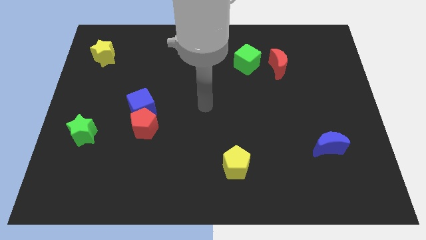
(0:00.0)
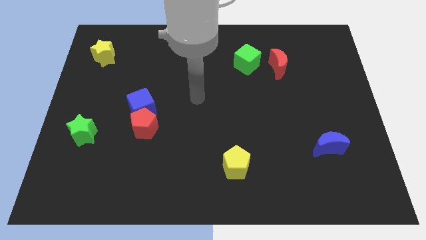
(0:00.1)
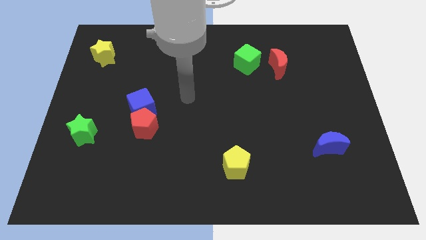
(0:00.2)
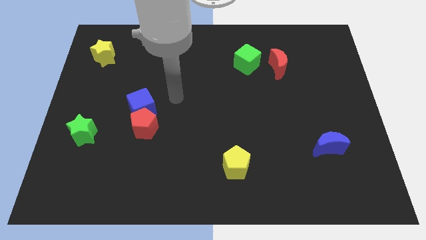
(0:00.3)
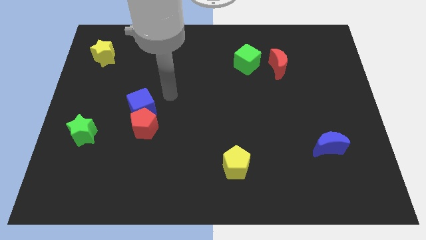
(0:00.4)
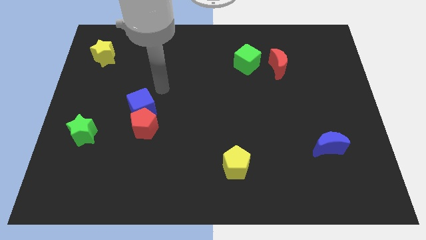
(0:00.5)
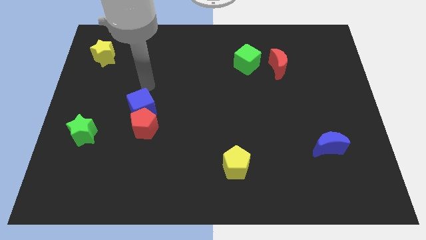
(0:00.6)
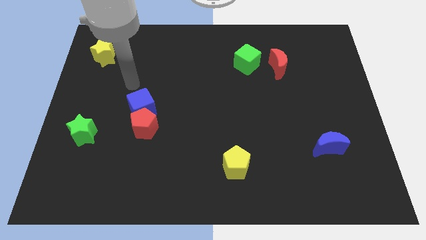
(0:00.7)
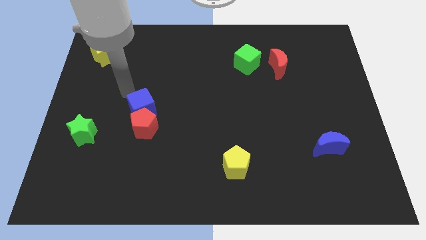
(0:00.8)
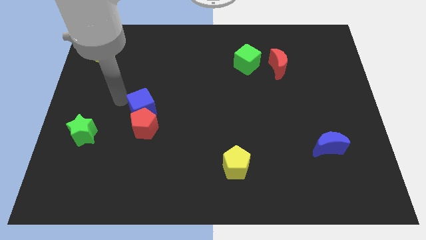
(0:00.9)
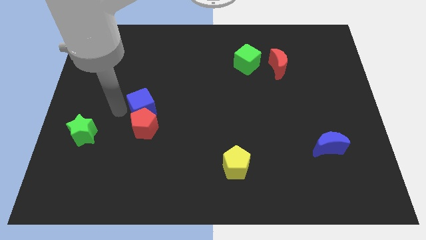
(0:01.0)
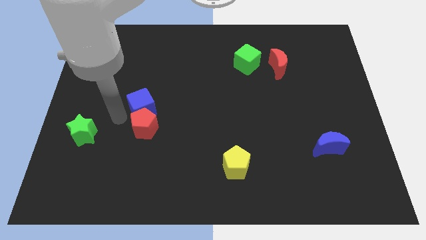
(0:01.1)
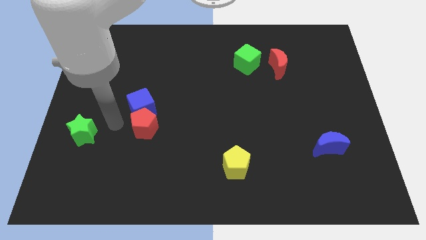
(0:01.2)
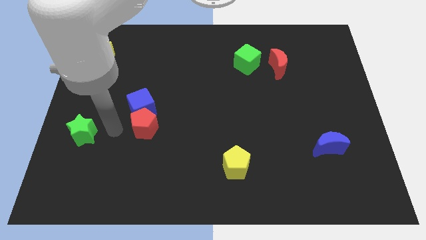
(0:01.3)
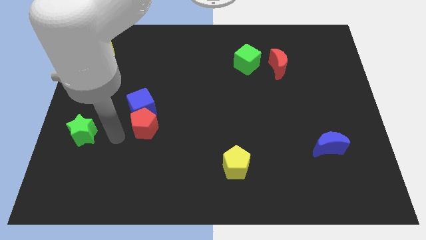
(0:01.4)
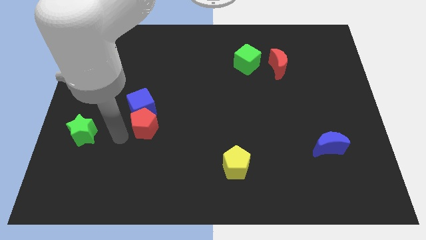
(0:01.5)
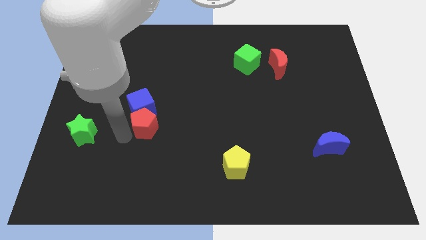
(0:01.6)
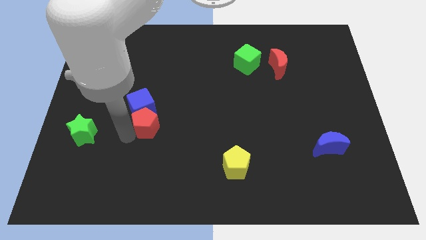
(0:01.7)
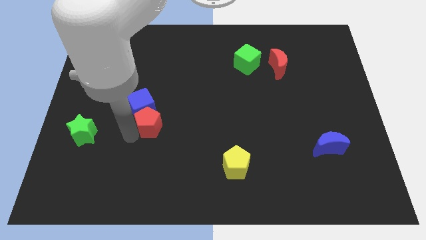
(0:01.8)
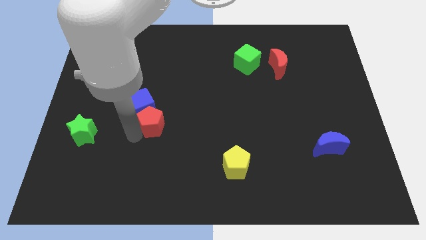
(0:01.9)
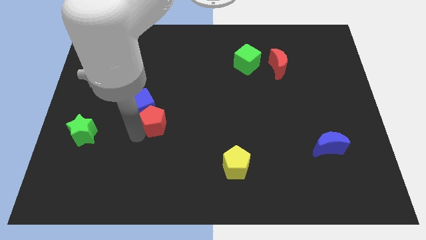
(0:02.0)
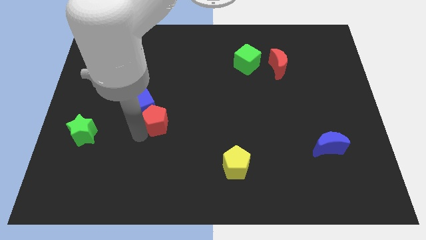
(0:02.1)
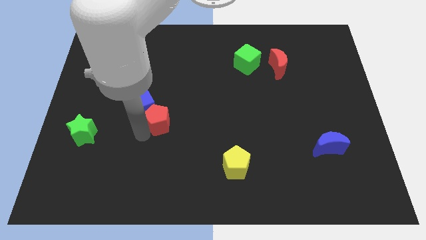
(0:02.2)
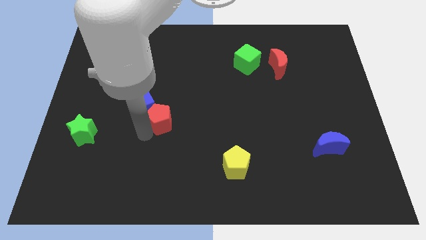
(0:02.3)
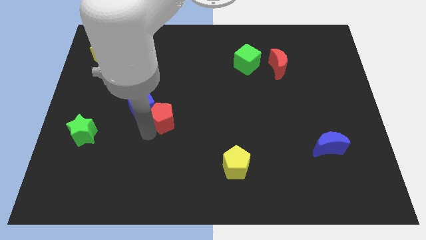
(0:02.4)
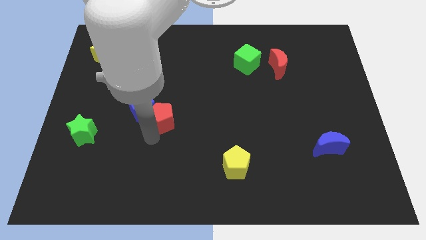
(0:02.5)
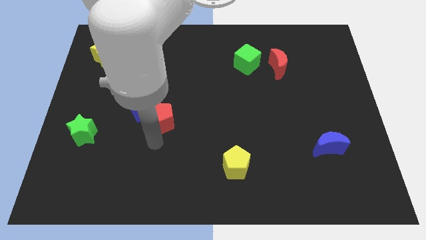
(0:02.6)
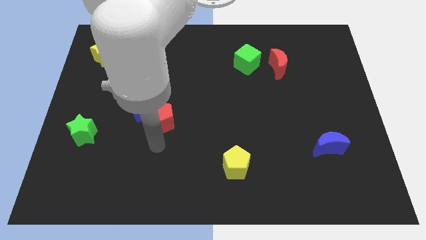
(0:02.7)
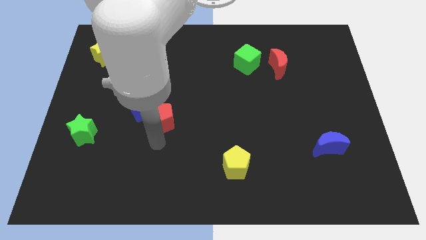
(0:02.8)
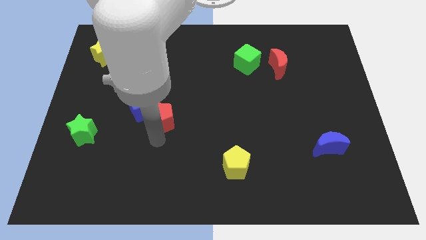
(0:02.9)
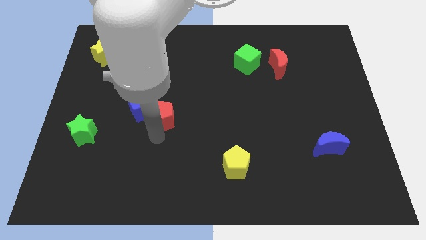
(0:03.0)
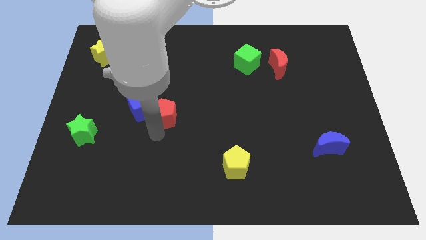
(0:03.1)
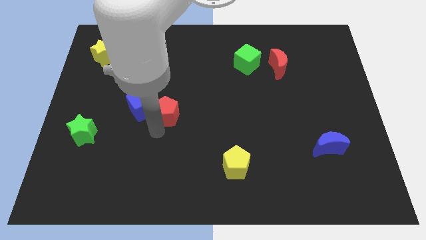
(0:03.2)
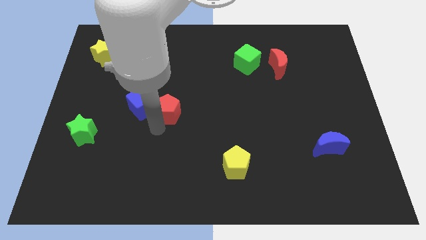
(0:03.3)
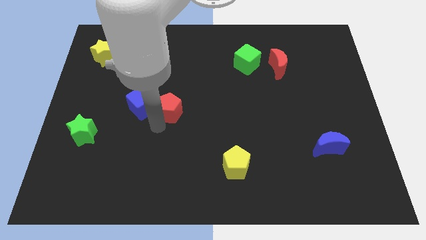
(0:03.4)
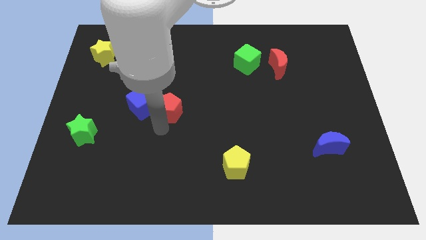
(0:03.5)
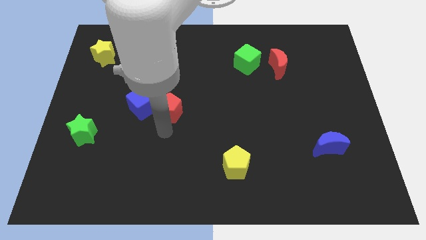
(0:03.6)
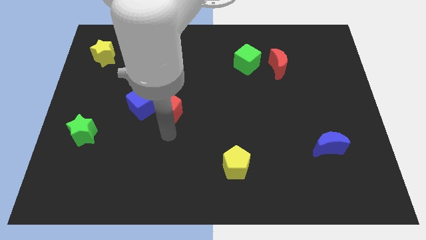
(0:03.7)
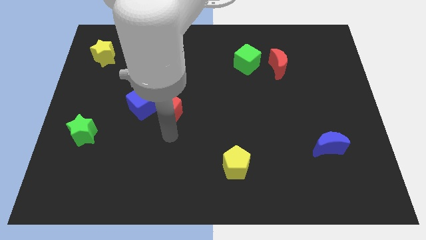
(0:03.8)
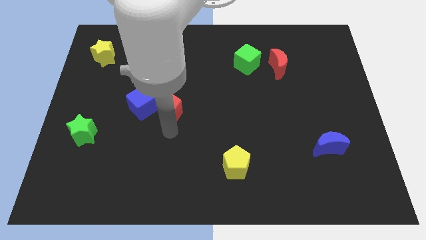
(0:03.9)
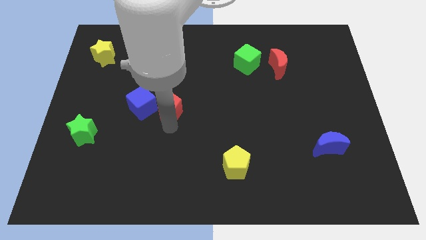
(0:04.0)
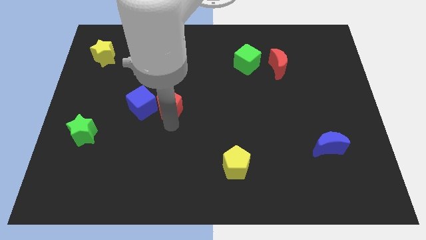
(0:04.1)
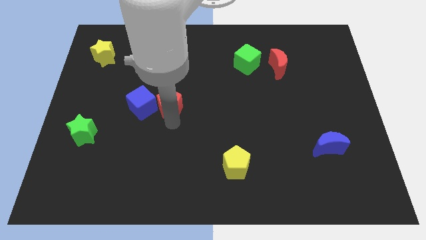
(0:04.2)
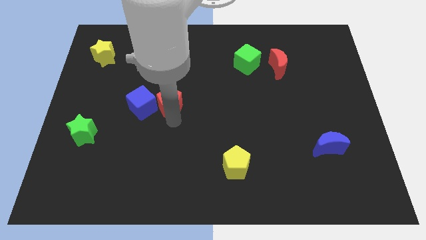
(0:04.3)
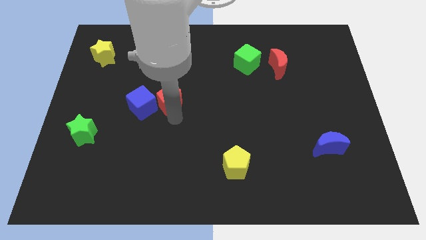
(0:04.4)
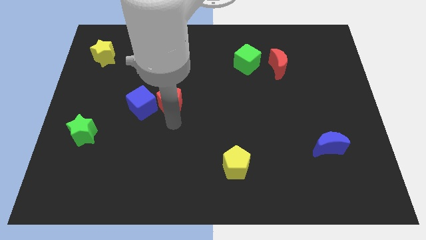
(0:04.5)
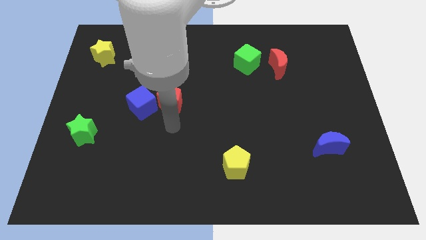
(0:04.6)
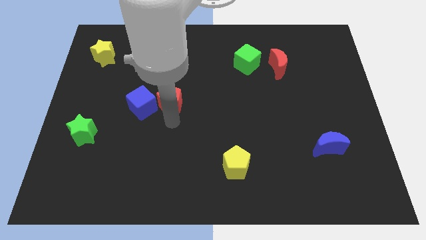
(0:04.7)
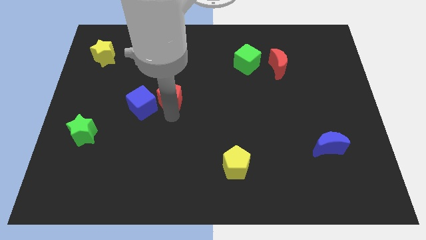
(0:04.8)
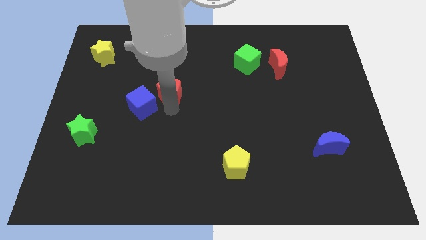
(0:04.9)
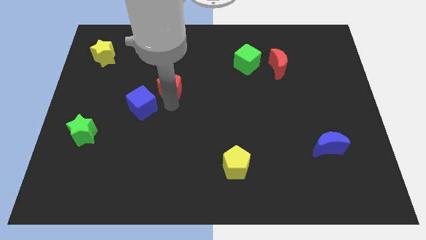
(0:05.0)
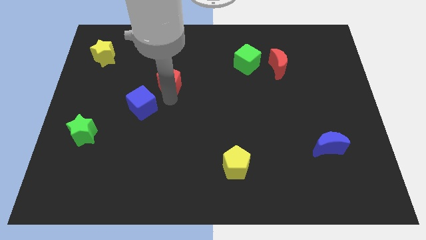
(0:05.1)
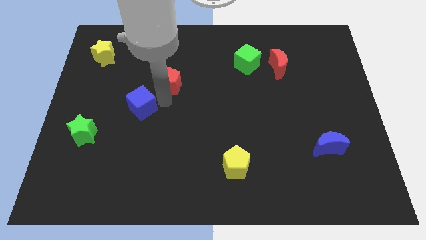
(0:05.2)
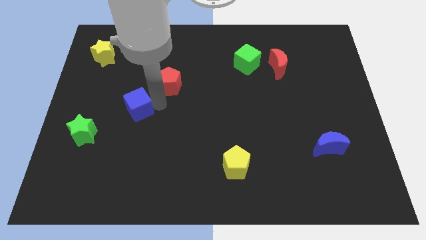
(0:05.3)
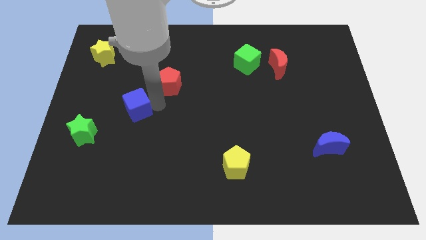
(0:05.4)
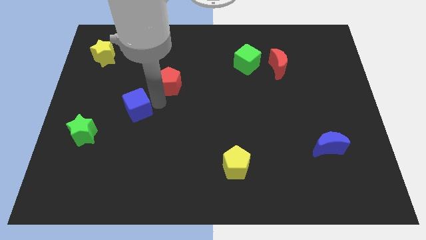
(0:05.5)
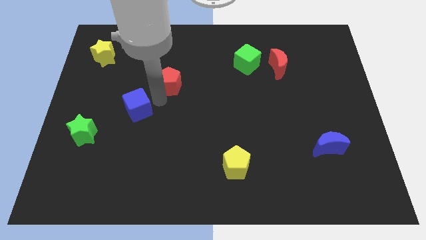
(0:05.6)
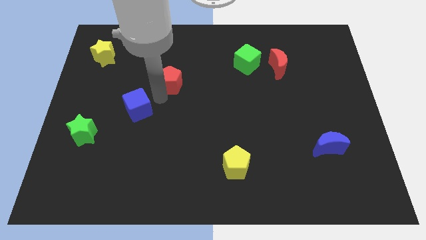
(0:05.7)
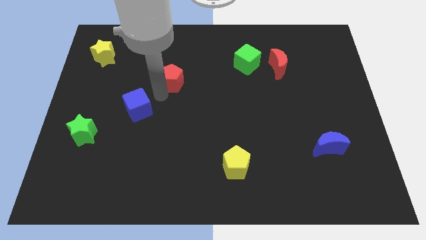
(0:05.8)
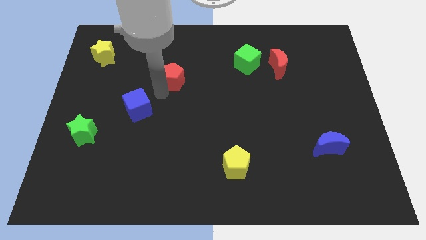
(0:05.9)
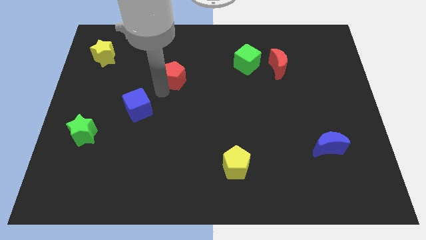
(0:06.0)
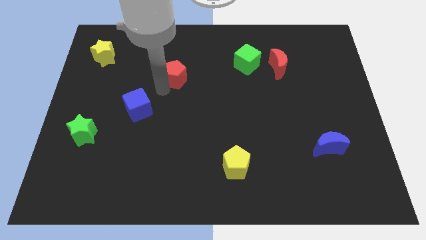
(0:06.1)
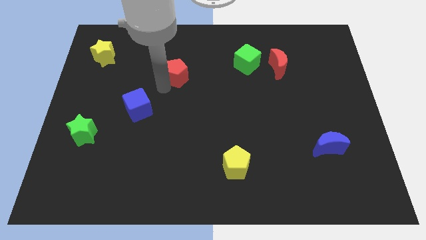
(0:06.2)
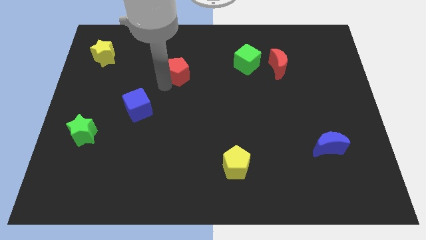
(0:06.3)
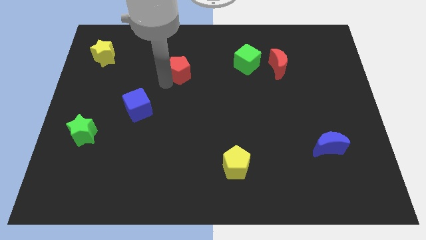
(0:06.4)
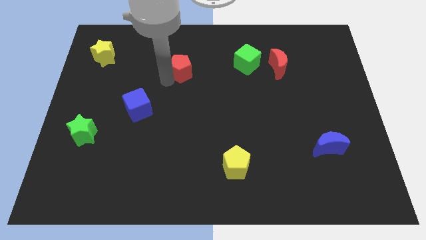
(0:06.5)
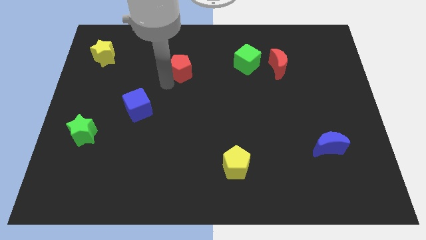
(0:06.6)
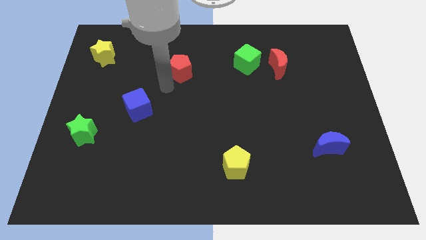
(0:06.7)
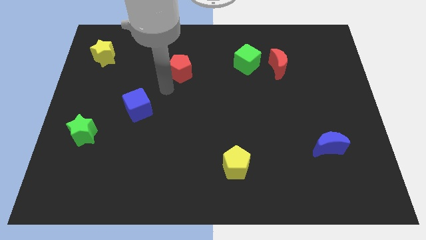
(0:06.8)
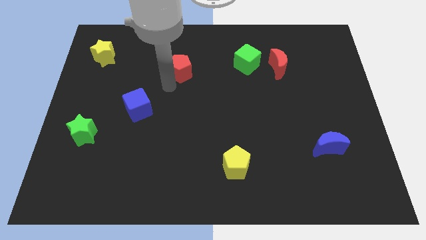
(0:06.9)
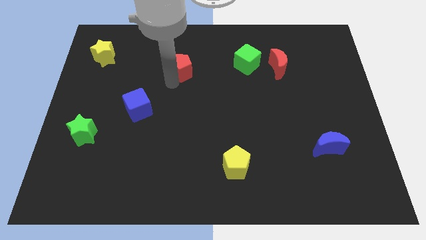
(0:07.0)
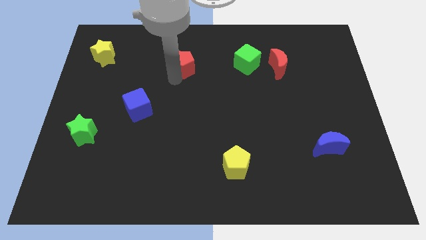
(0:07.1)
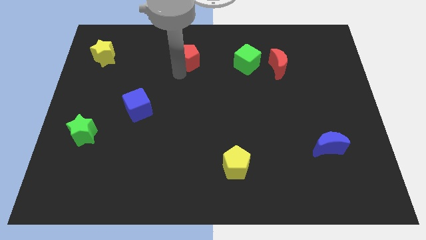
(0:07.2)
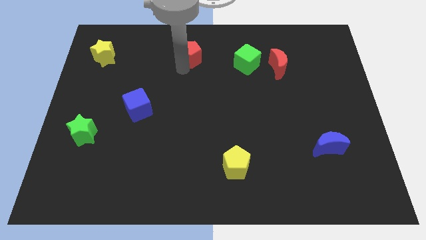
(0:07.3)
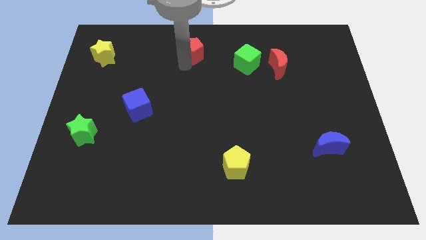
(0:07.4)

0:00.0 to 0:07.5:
push the red pentagon to the top side
